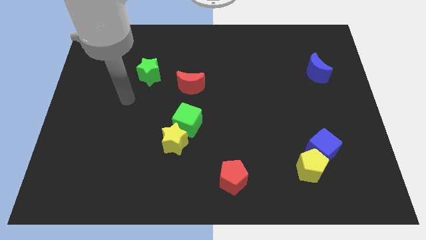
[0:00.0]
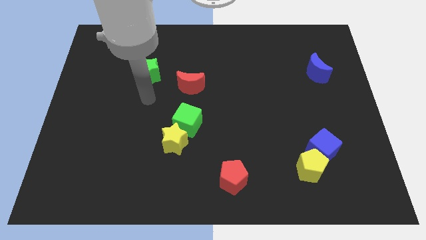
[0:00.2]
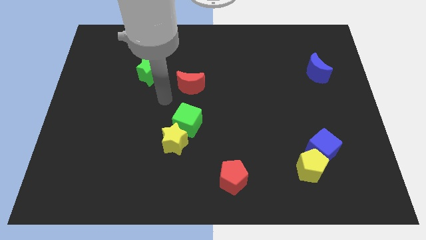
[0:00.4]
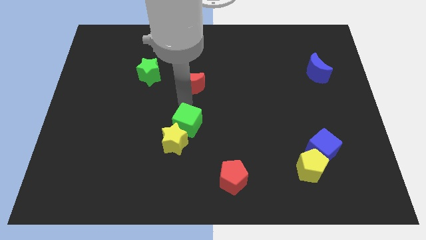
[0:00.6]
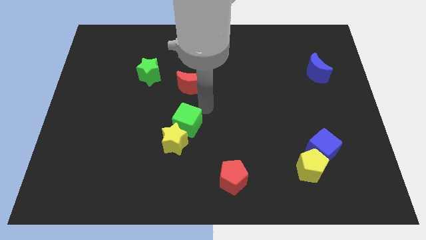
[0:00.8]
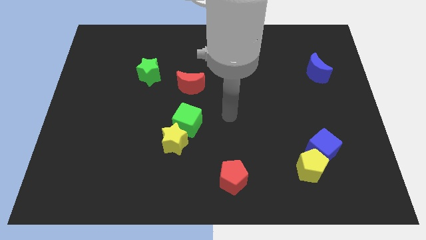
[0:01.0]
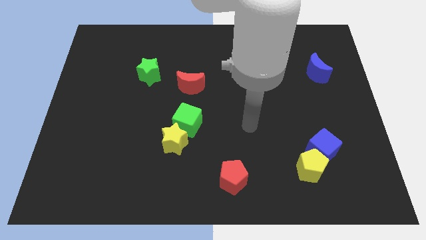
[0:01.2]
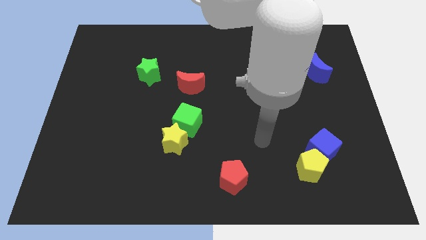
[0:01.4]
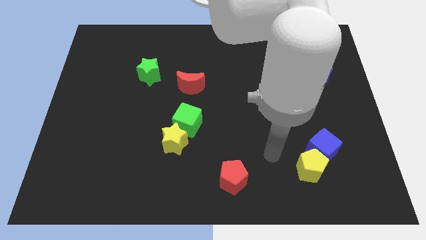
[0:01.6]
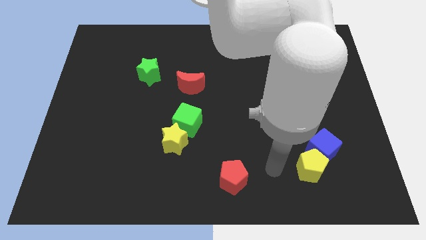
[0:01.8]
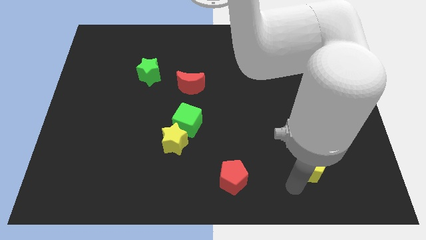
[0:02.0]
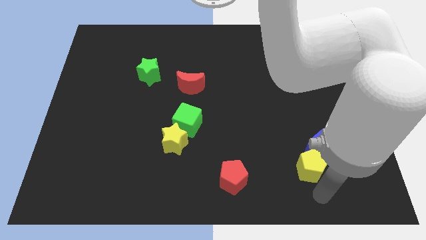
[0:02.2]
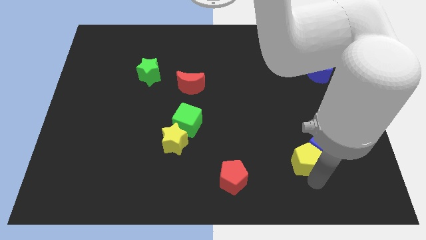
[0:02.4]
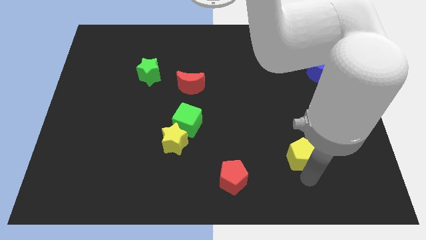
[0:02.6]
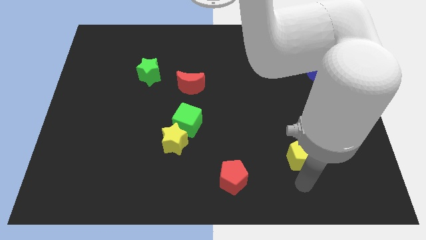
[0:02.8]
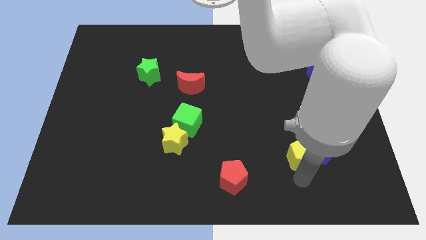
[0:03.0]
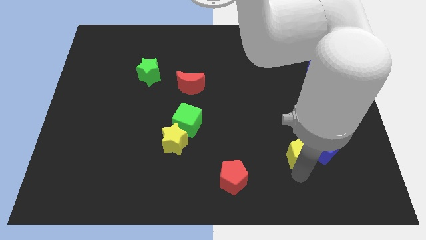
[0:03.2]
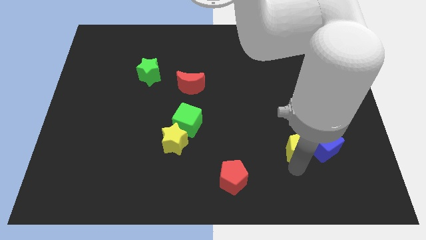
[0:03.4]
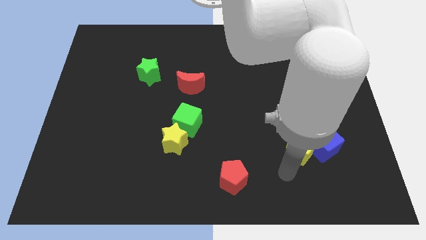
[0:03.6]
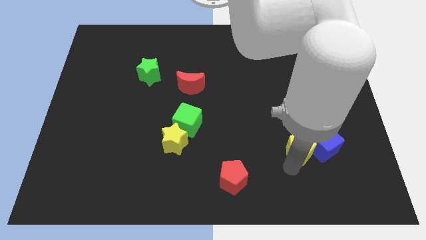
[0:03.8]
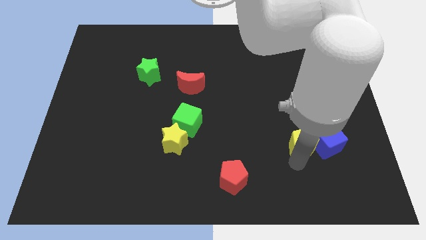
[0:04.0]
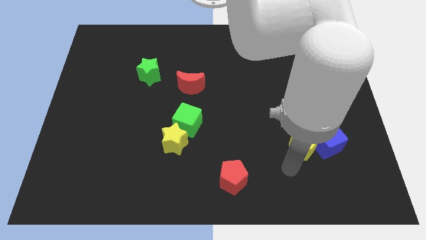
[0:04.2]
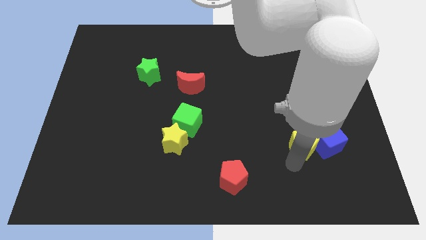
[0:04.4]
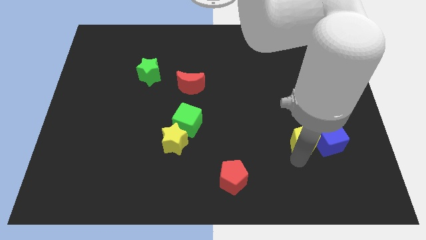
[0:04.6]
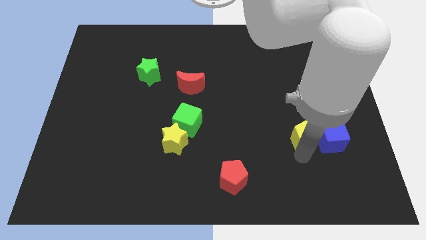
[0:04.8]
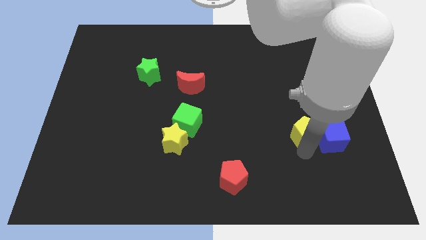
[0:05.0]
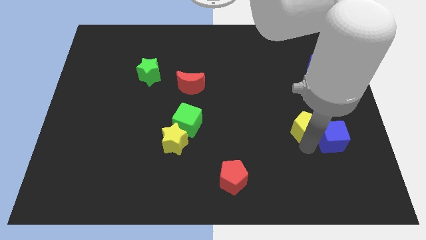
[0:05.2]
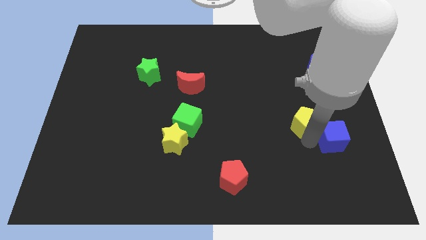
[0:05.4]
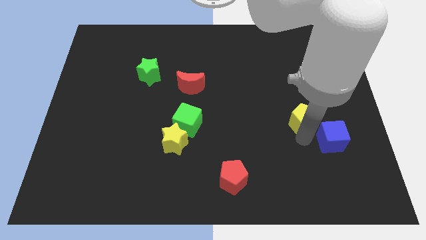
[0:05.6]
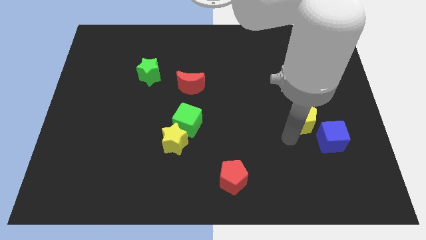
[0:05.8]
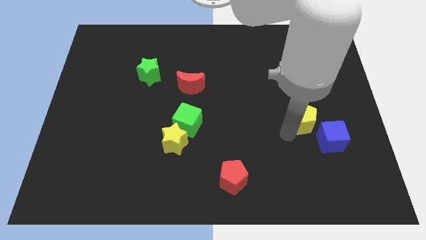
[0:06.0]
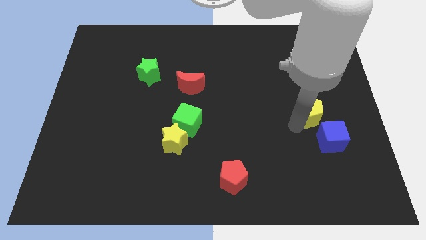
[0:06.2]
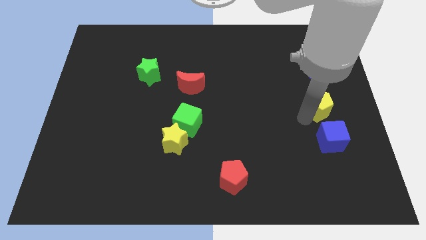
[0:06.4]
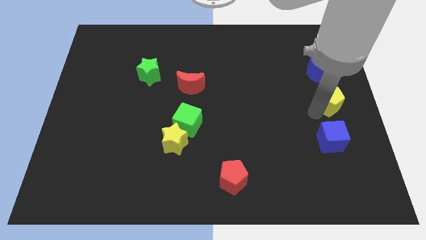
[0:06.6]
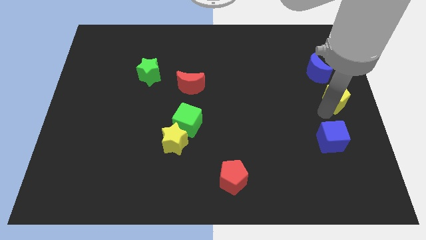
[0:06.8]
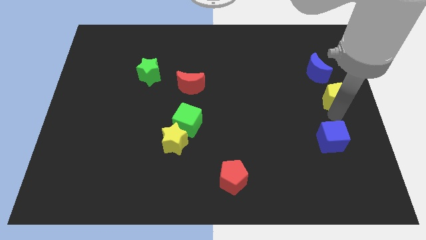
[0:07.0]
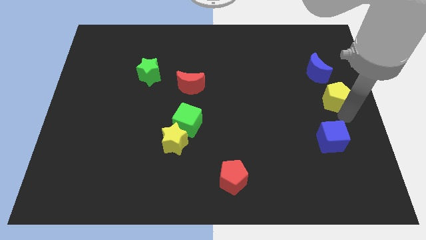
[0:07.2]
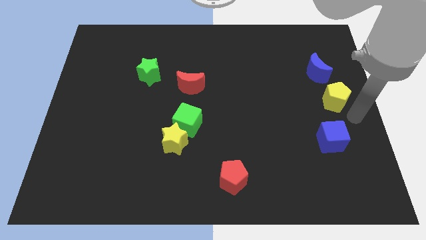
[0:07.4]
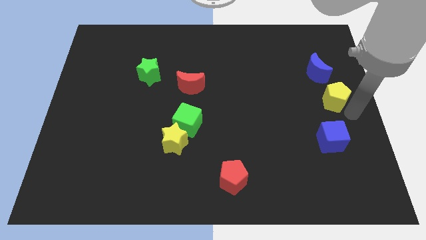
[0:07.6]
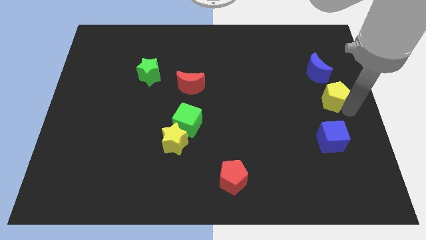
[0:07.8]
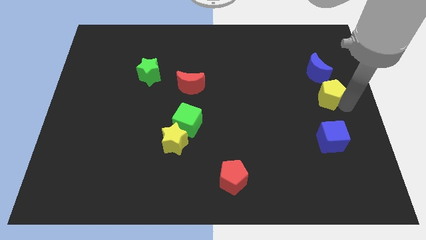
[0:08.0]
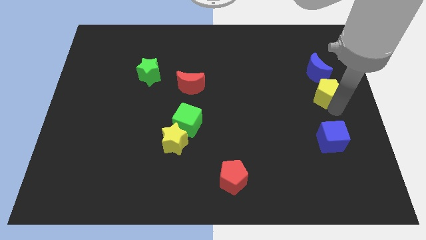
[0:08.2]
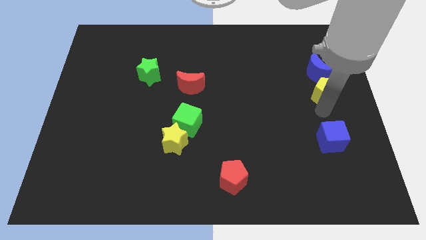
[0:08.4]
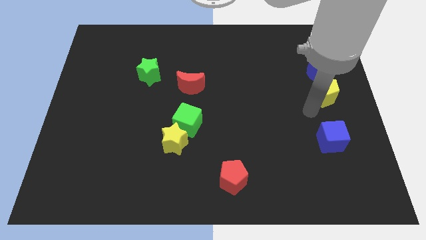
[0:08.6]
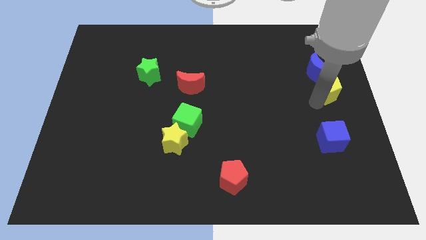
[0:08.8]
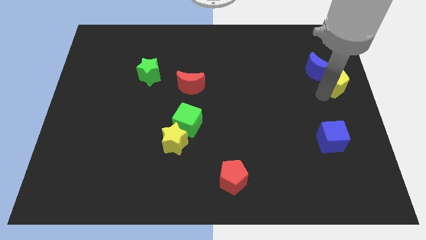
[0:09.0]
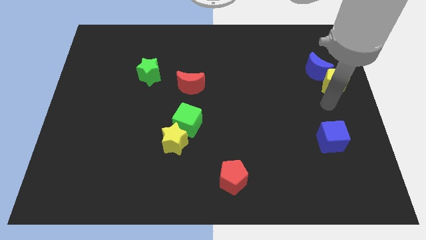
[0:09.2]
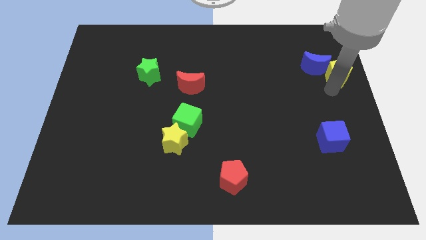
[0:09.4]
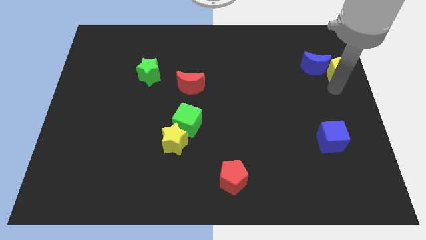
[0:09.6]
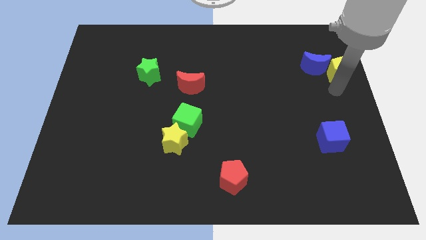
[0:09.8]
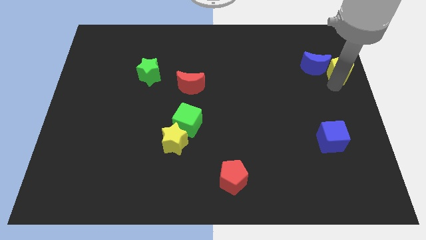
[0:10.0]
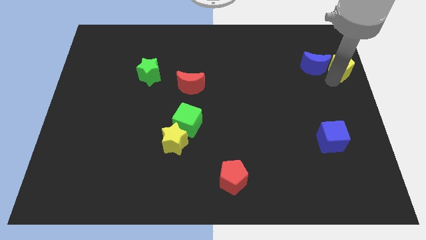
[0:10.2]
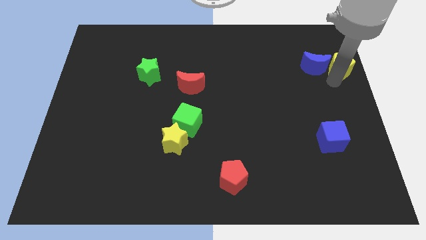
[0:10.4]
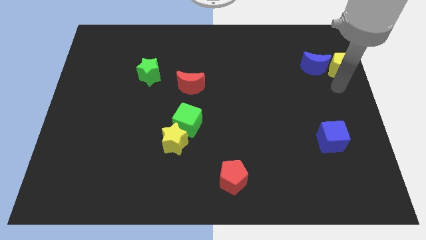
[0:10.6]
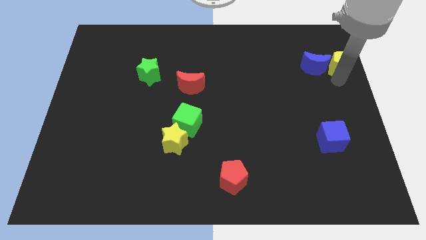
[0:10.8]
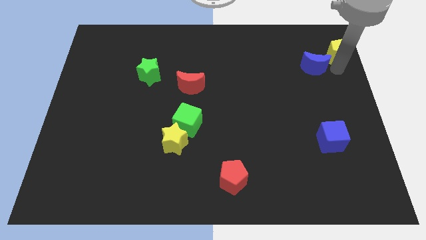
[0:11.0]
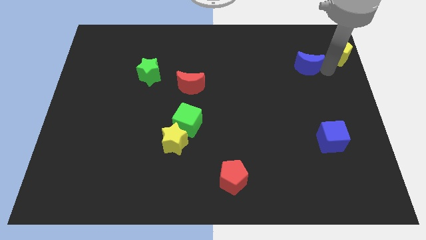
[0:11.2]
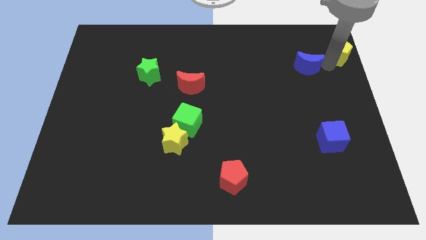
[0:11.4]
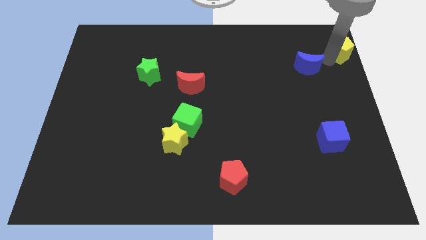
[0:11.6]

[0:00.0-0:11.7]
move the yellow pentagon to the top right corner

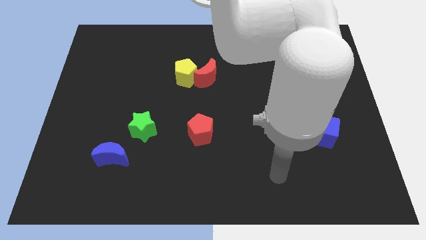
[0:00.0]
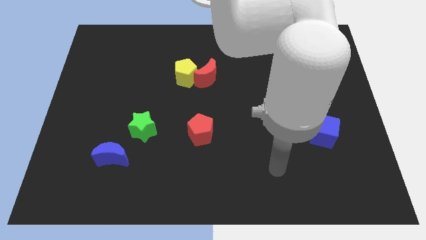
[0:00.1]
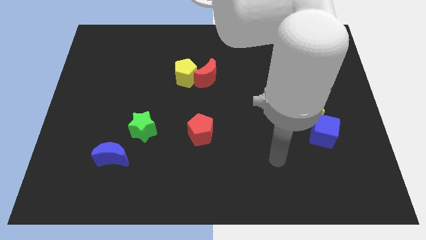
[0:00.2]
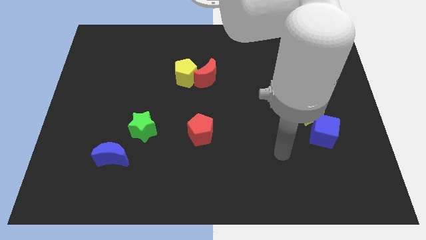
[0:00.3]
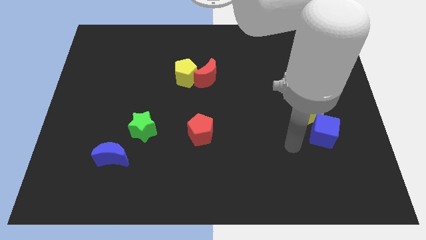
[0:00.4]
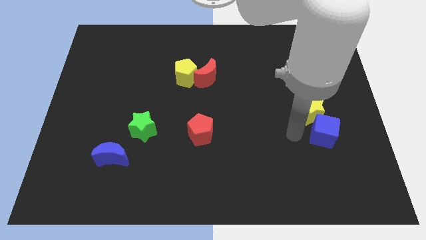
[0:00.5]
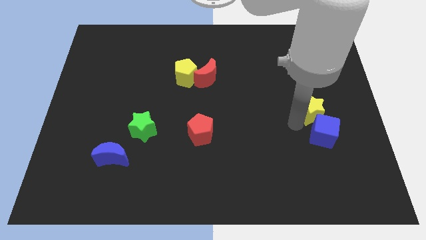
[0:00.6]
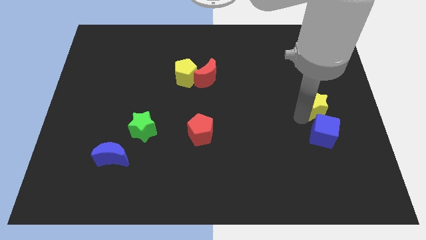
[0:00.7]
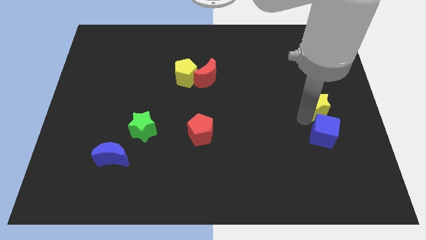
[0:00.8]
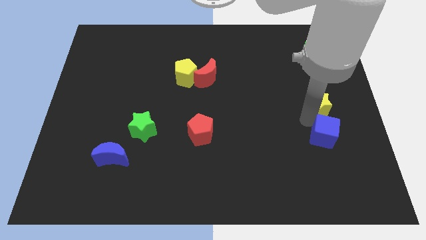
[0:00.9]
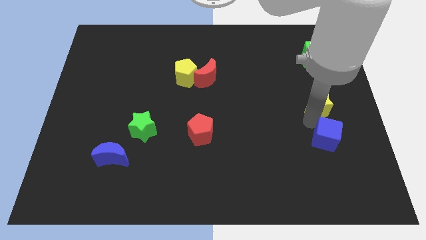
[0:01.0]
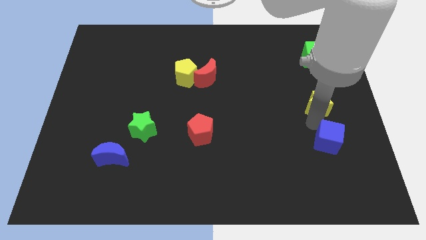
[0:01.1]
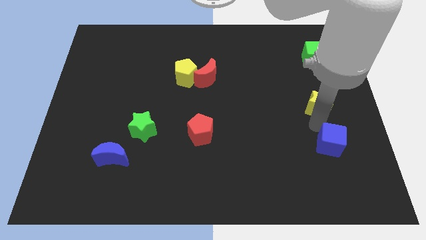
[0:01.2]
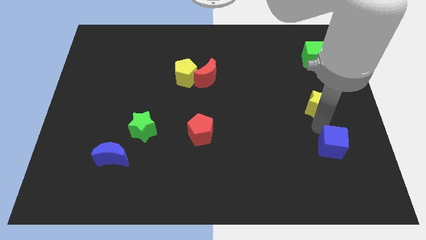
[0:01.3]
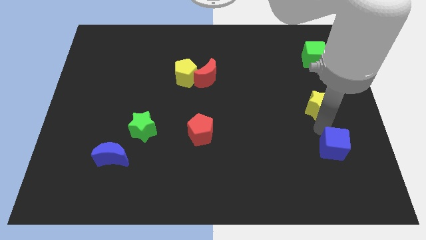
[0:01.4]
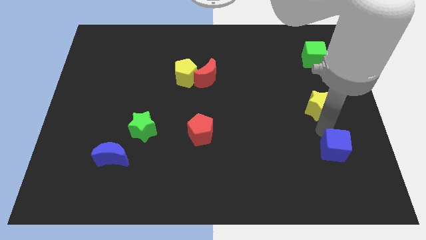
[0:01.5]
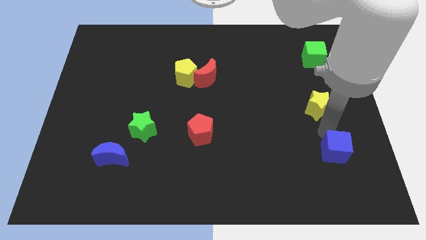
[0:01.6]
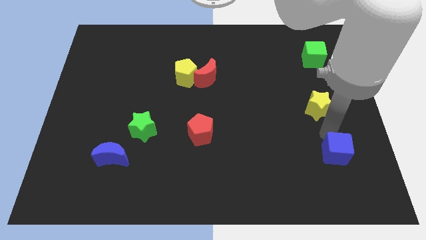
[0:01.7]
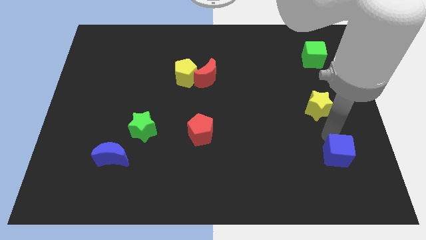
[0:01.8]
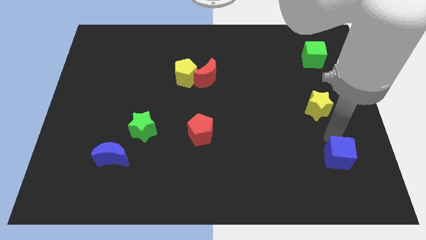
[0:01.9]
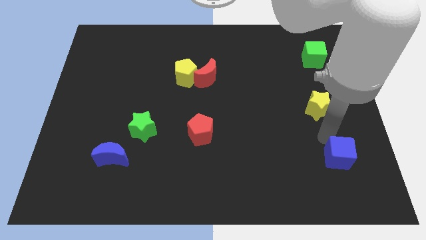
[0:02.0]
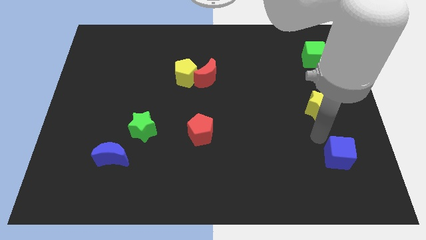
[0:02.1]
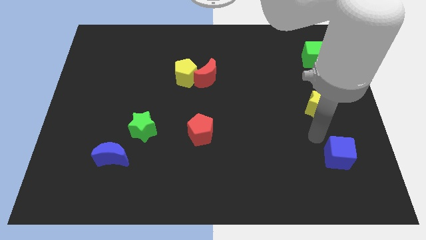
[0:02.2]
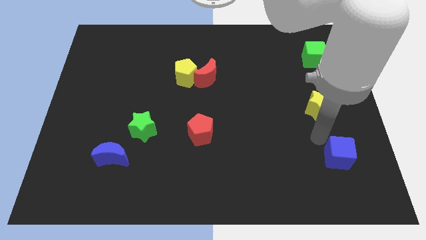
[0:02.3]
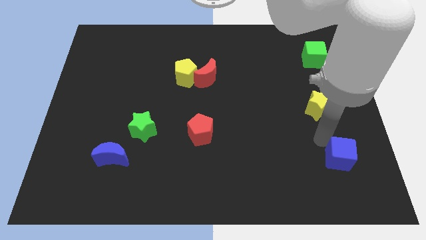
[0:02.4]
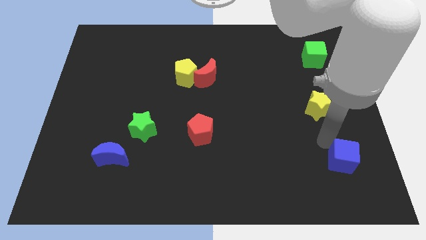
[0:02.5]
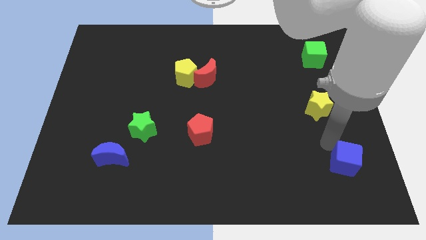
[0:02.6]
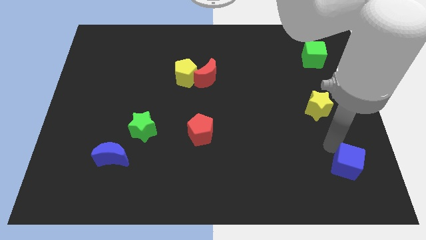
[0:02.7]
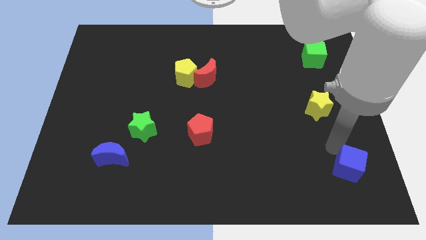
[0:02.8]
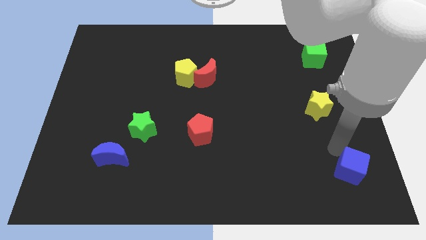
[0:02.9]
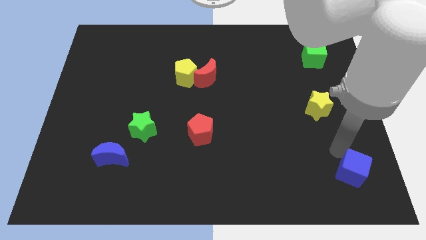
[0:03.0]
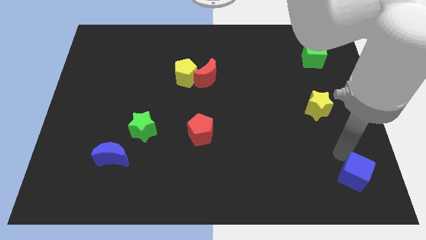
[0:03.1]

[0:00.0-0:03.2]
move the blue cube to the lower right corner
